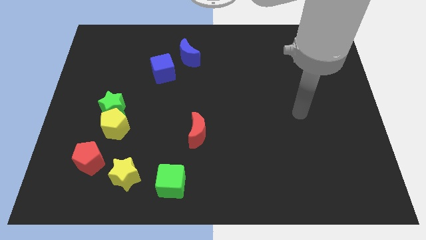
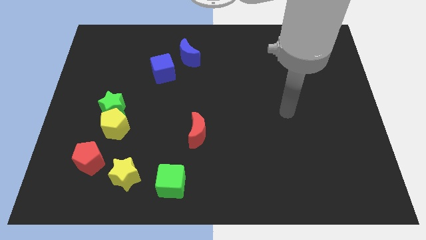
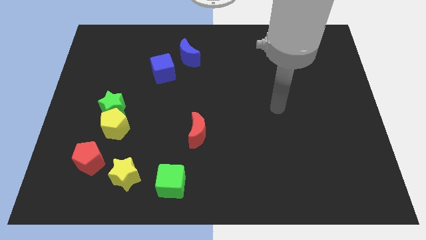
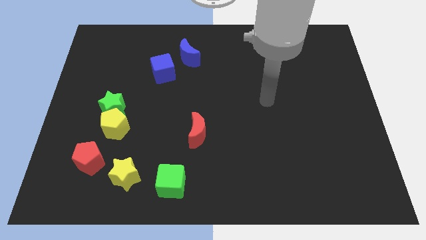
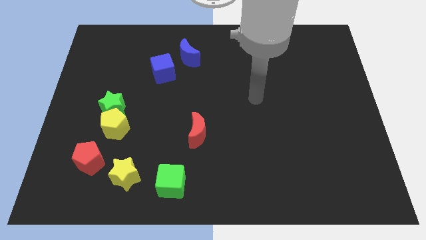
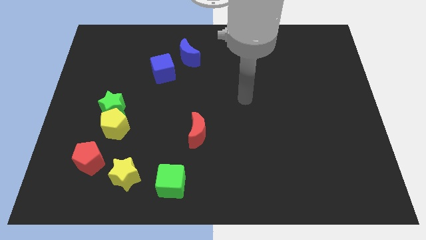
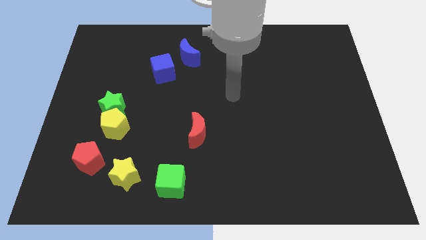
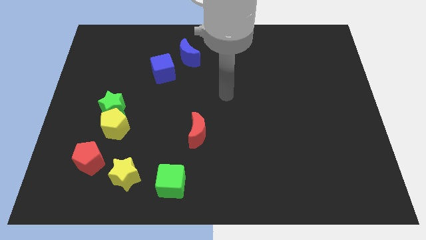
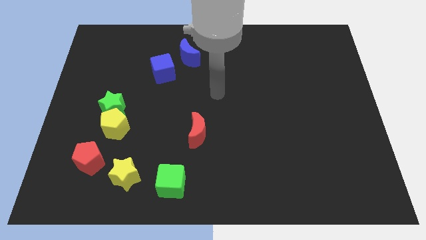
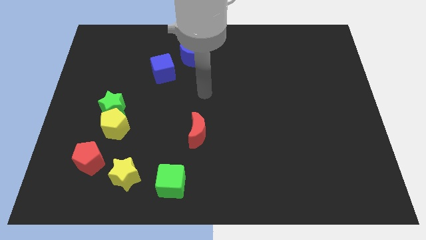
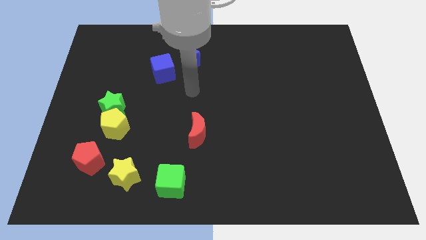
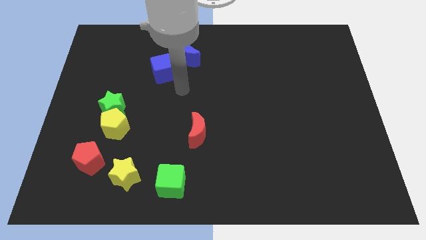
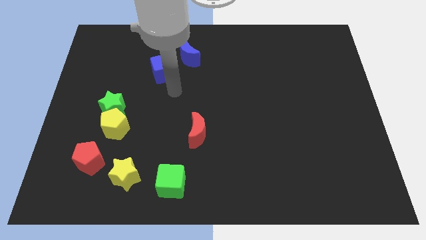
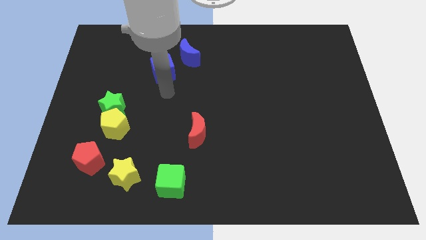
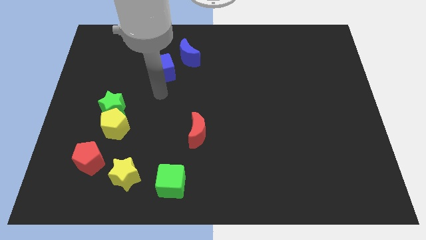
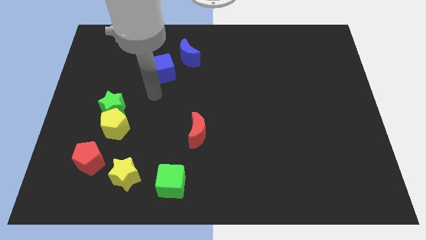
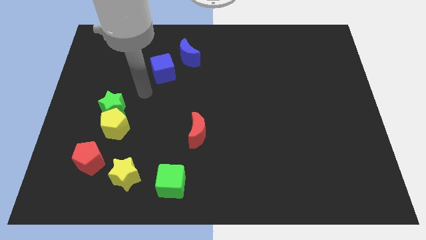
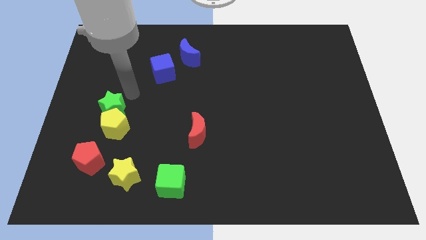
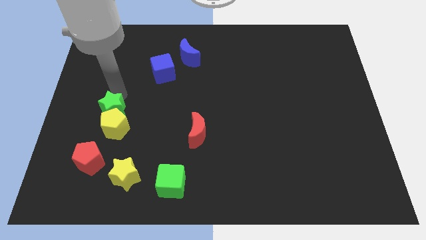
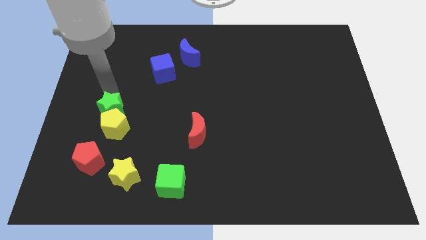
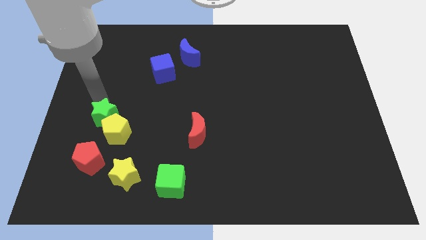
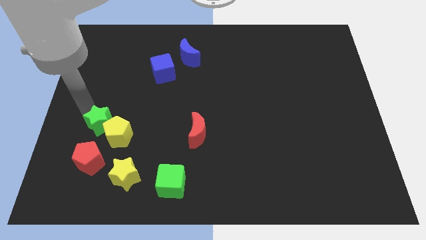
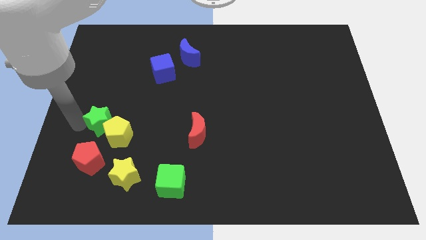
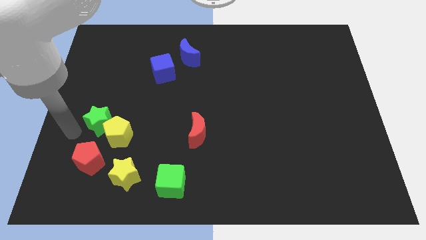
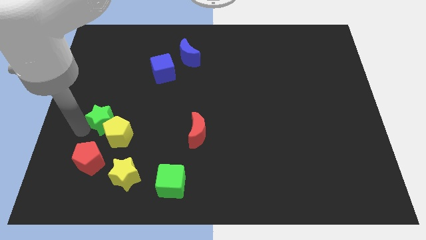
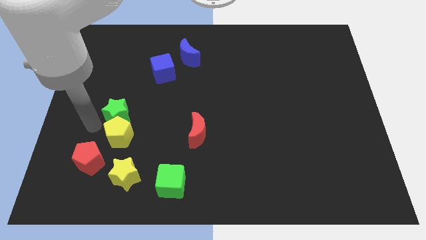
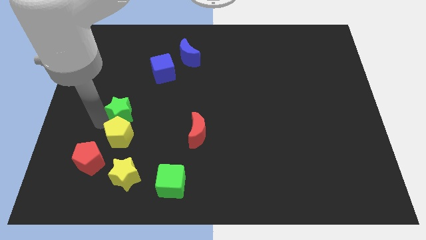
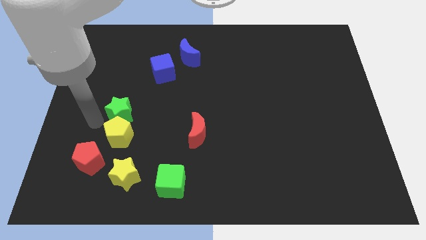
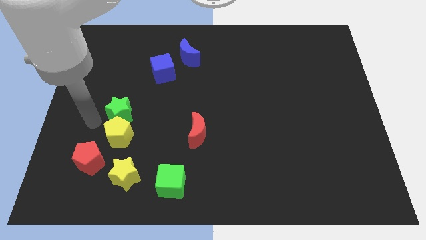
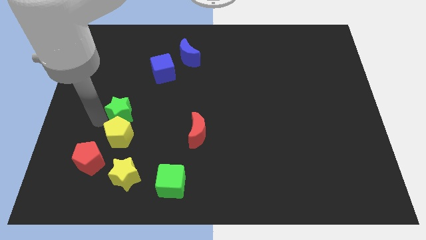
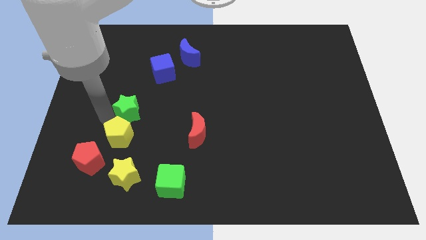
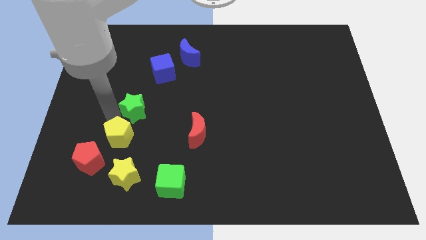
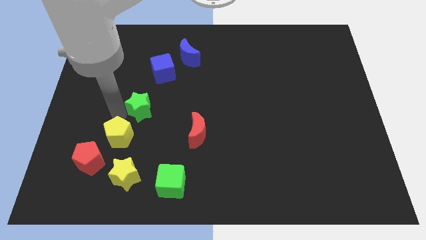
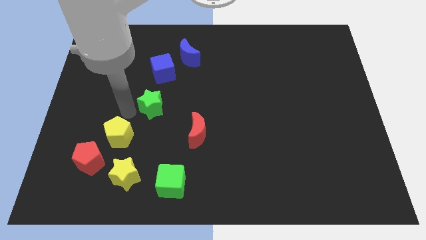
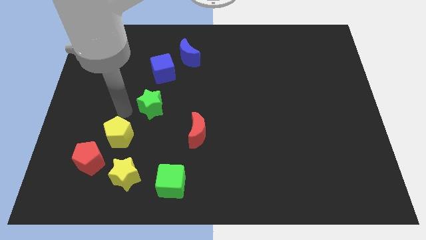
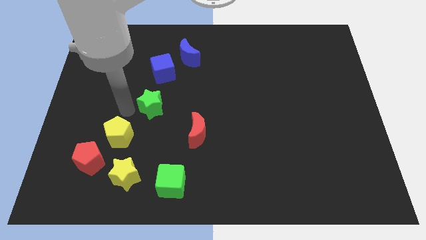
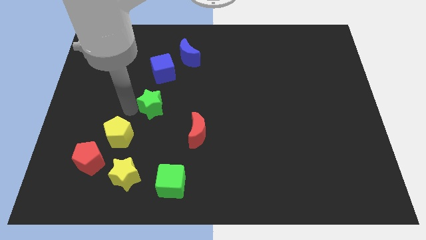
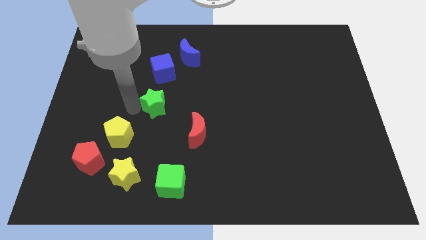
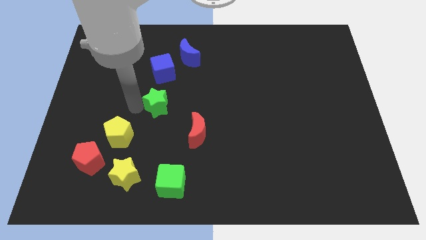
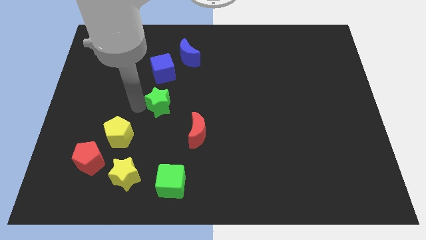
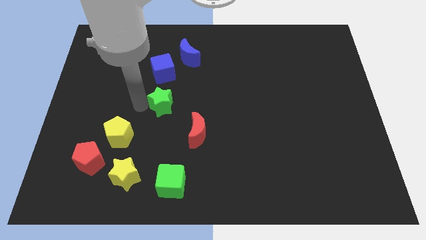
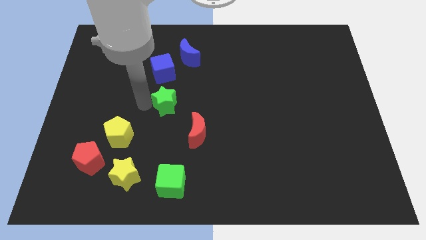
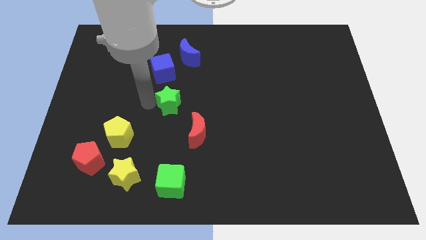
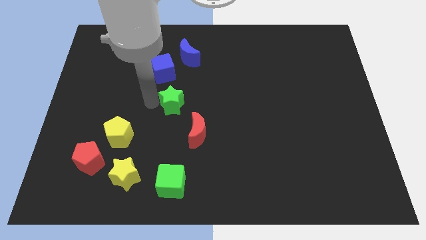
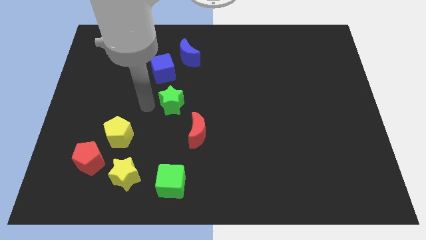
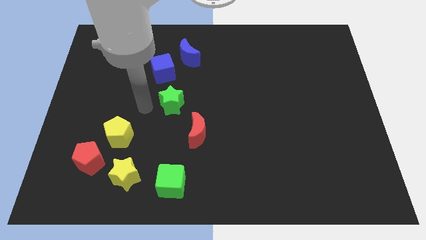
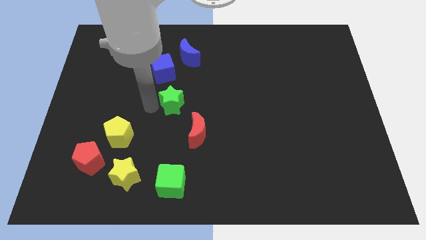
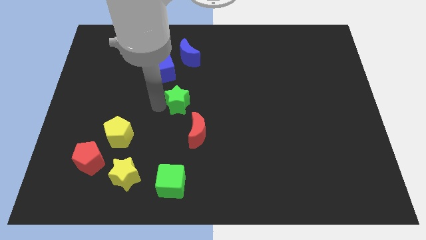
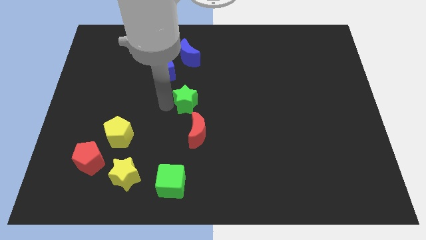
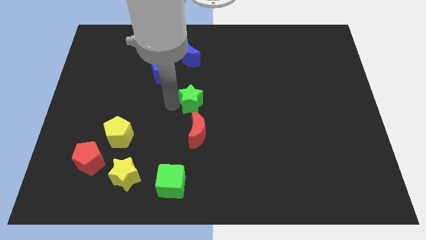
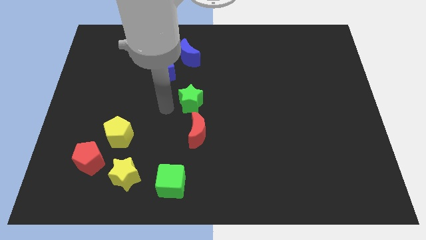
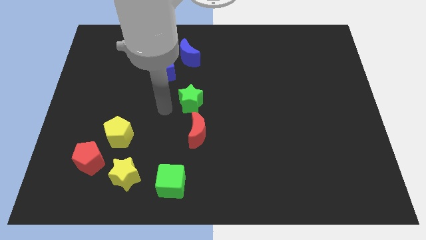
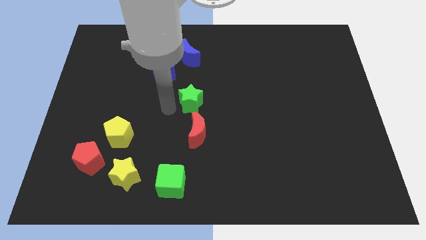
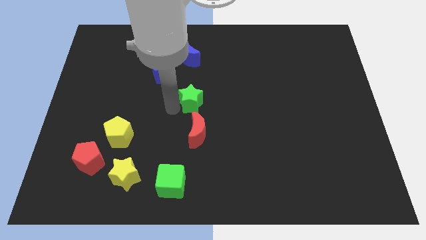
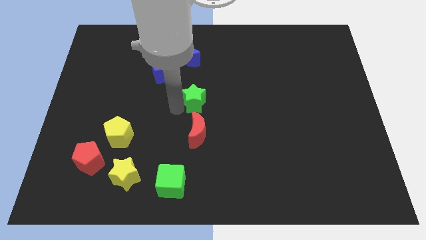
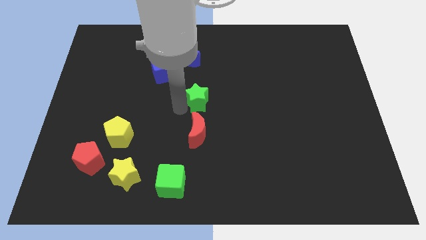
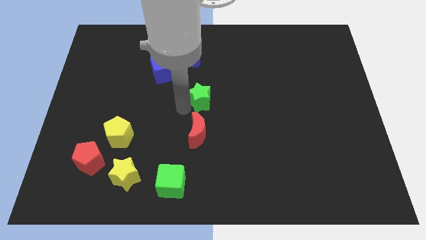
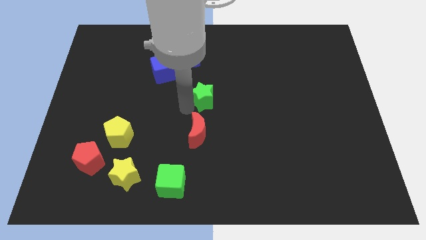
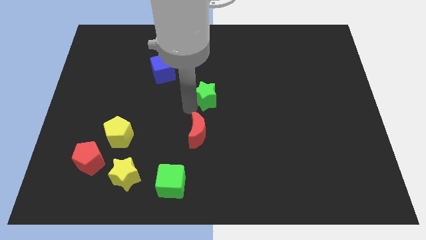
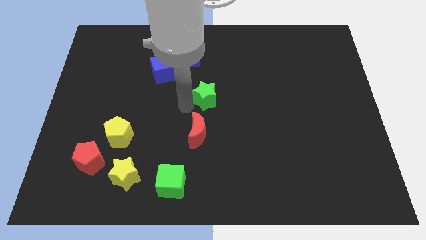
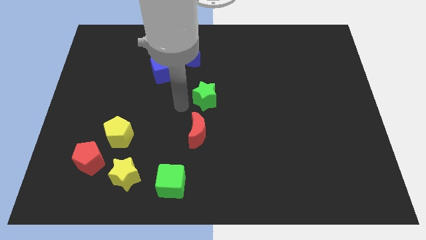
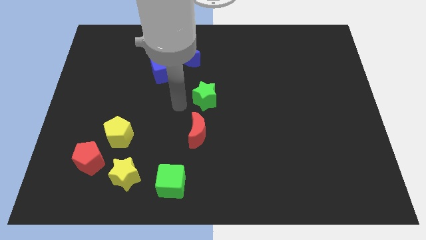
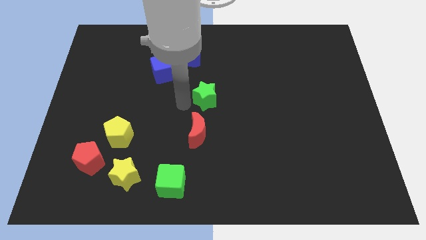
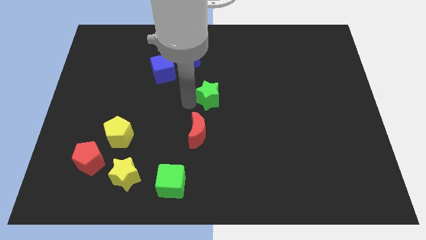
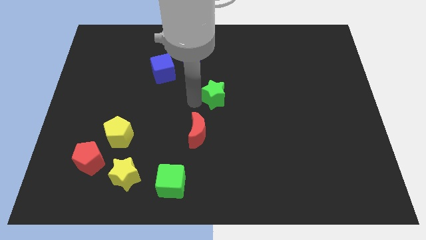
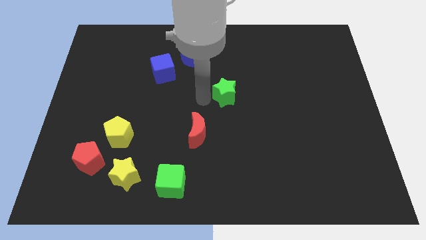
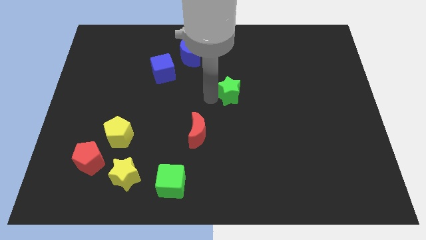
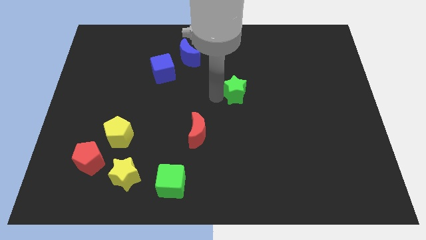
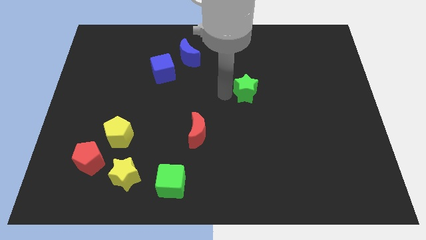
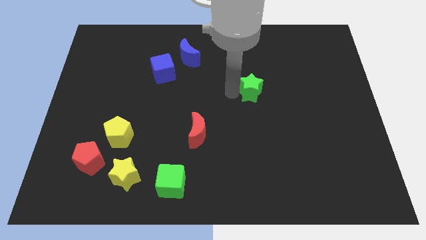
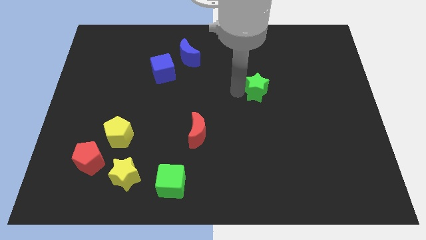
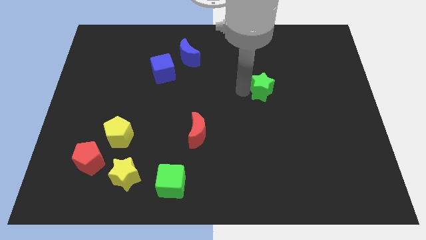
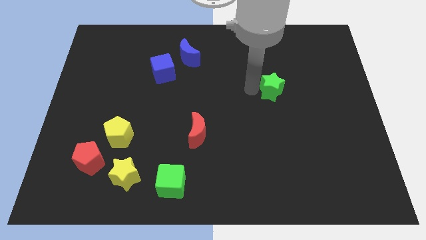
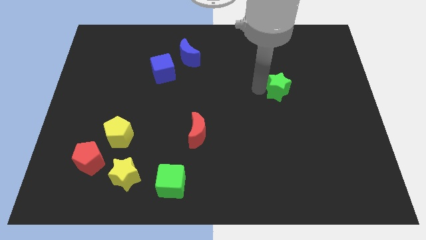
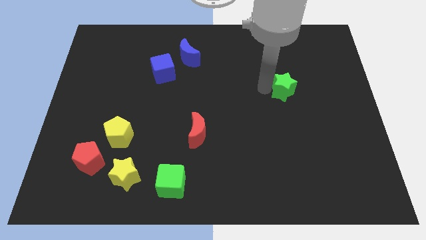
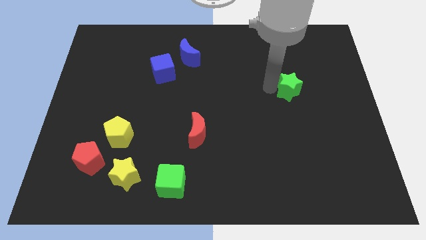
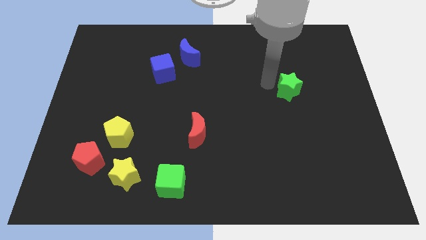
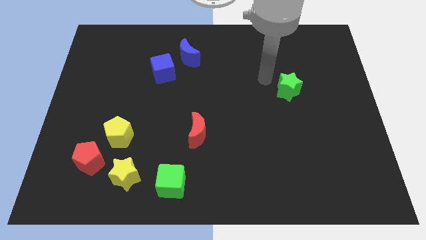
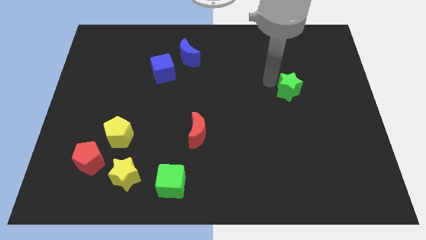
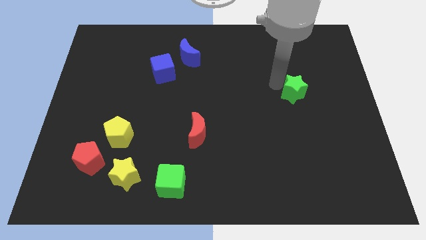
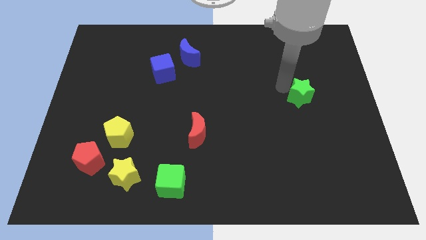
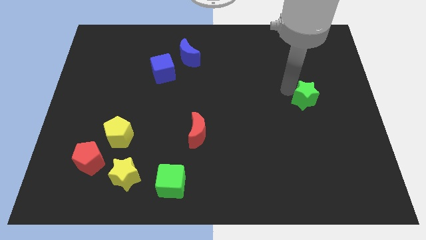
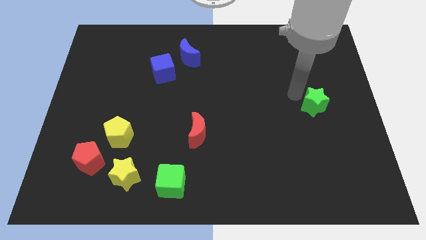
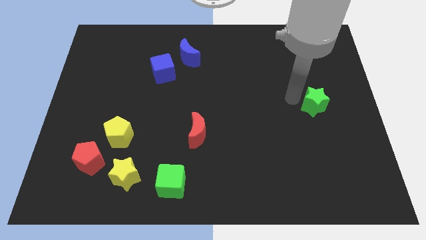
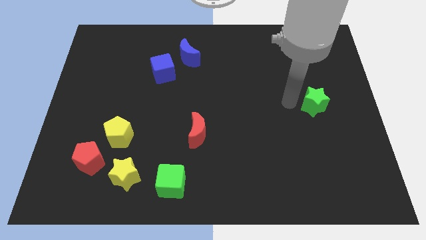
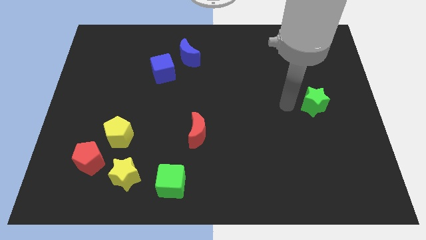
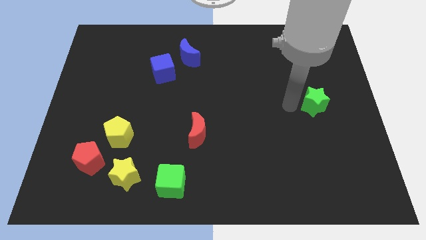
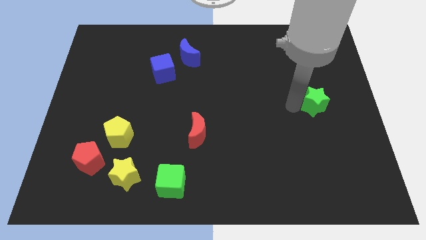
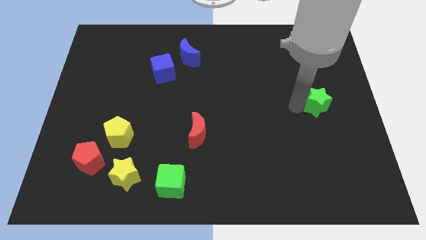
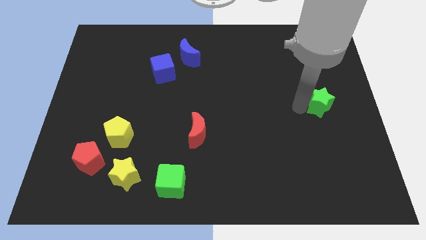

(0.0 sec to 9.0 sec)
move the green star to the right side
